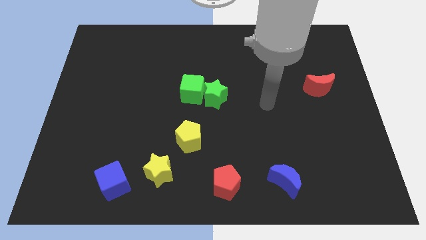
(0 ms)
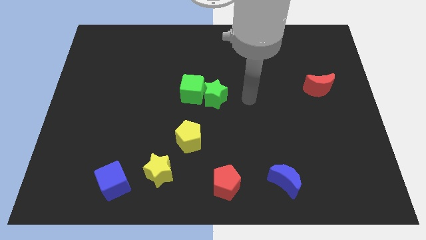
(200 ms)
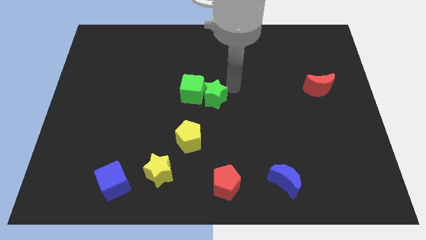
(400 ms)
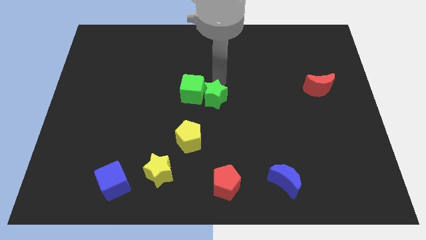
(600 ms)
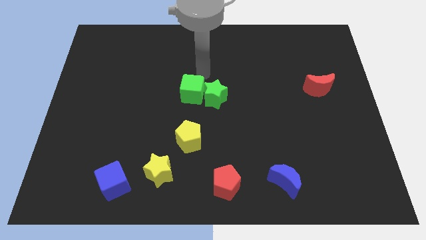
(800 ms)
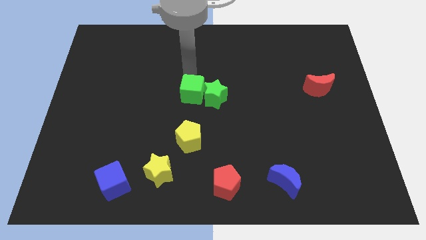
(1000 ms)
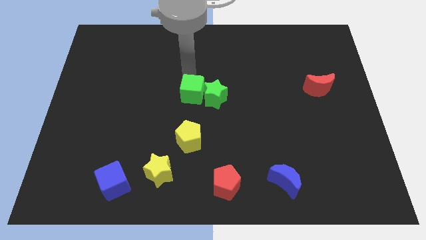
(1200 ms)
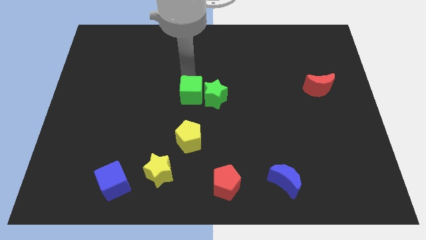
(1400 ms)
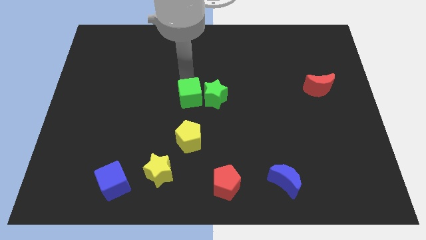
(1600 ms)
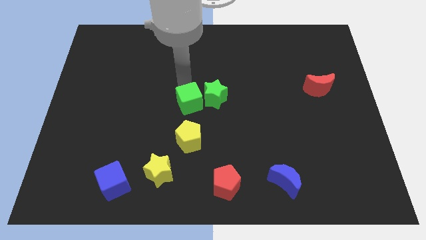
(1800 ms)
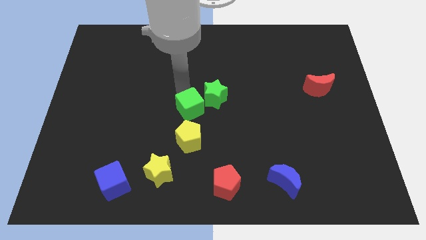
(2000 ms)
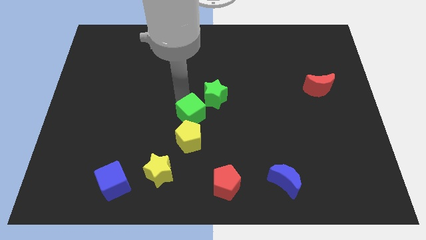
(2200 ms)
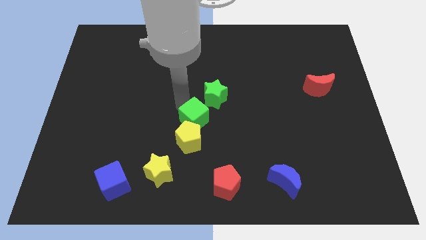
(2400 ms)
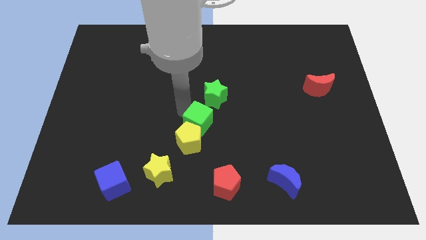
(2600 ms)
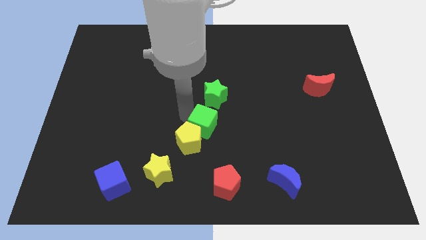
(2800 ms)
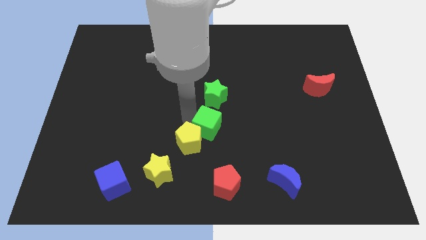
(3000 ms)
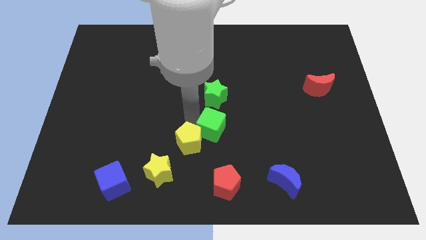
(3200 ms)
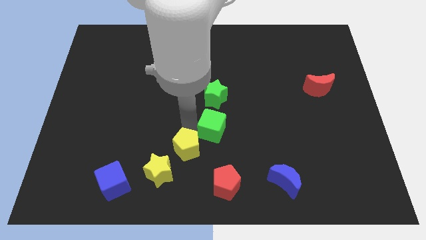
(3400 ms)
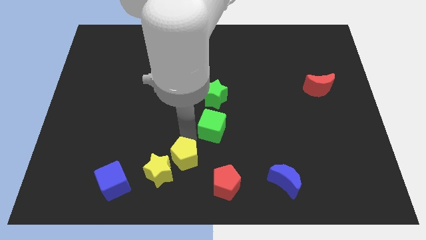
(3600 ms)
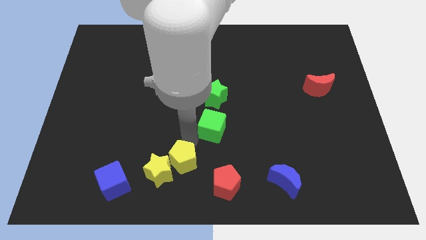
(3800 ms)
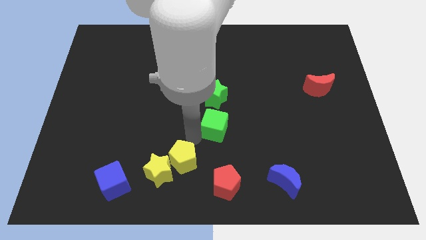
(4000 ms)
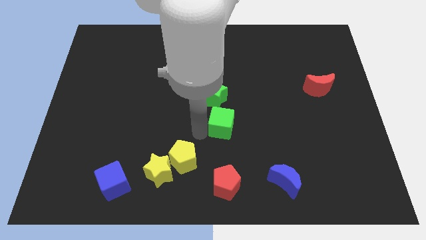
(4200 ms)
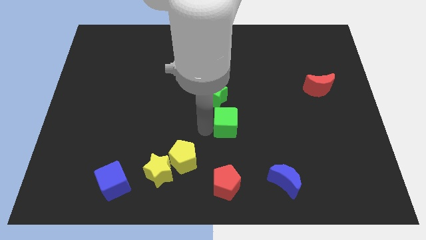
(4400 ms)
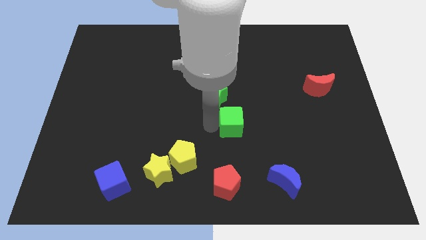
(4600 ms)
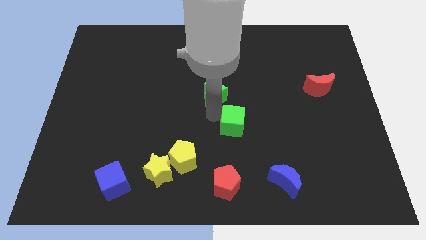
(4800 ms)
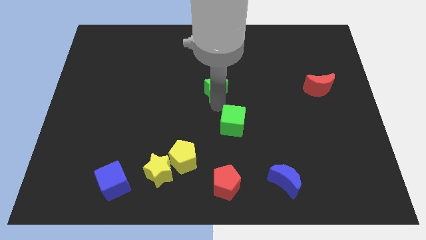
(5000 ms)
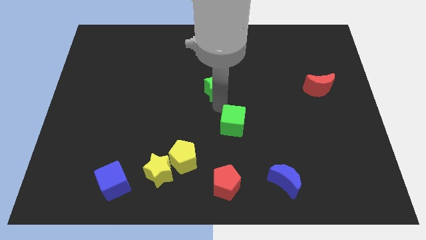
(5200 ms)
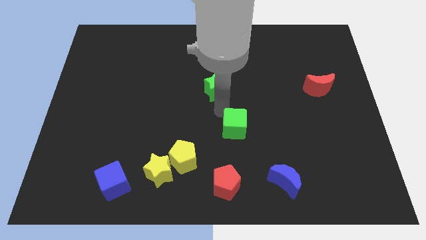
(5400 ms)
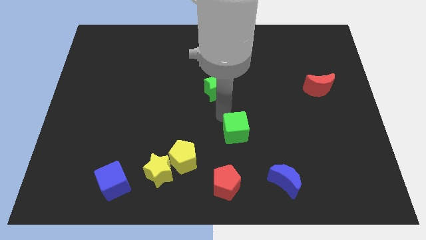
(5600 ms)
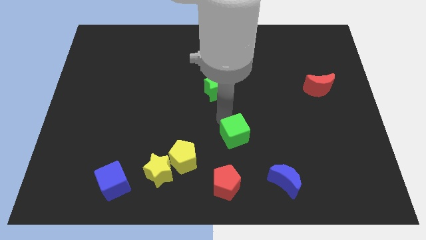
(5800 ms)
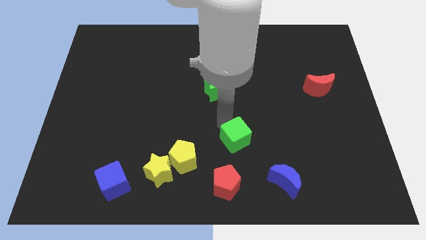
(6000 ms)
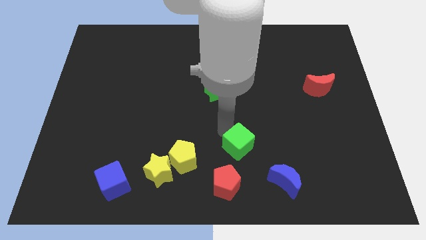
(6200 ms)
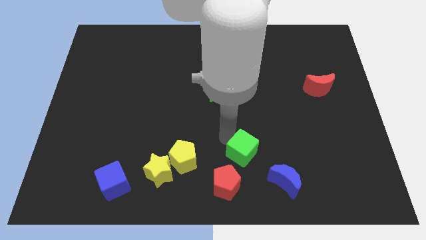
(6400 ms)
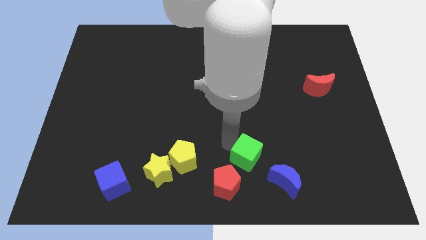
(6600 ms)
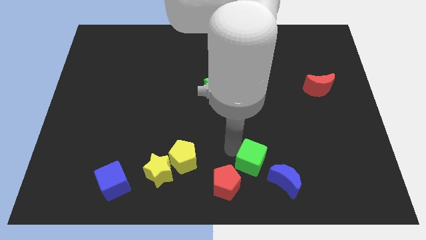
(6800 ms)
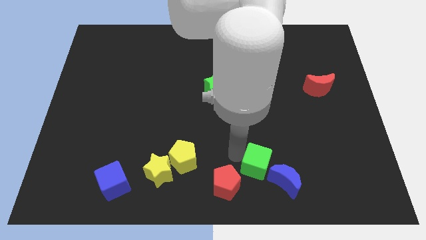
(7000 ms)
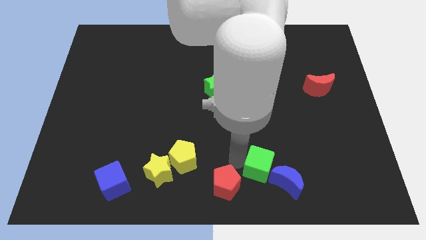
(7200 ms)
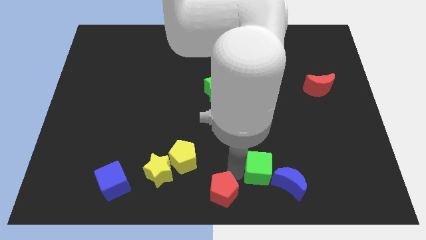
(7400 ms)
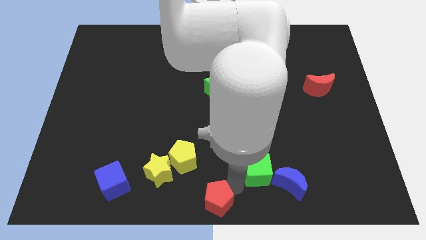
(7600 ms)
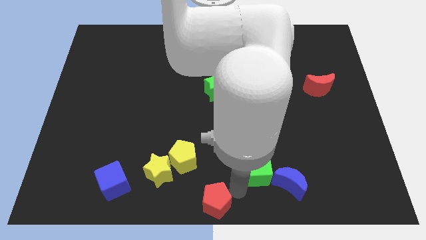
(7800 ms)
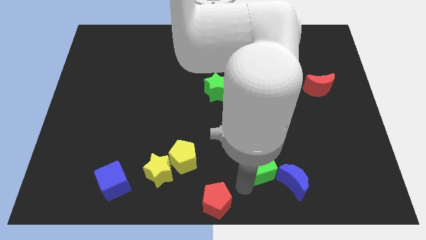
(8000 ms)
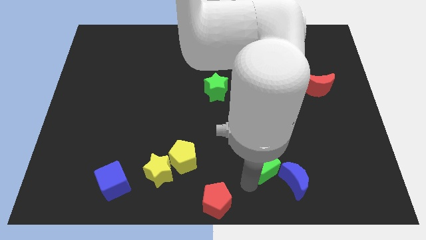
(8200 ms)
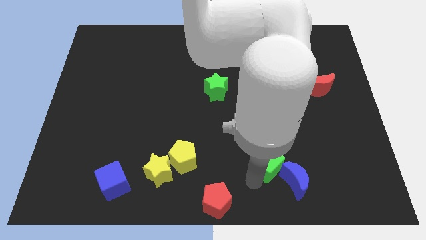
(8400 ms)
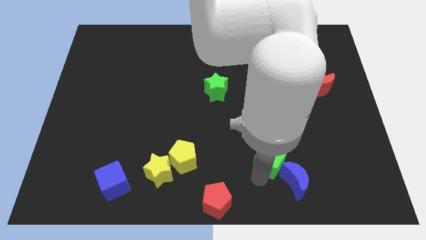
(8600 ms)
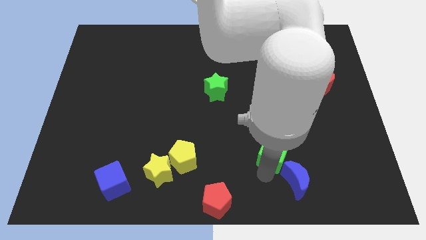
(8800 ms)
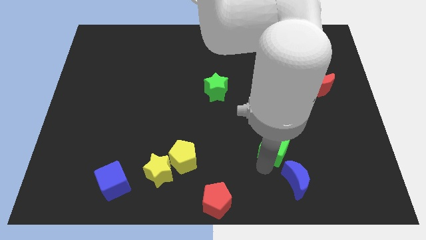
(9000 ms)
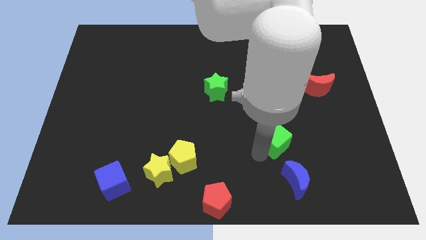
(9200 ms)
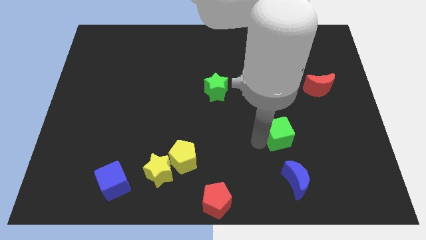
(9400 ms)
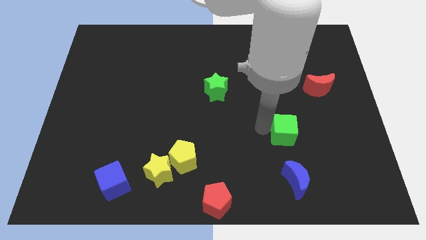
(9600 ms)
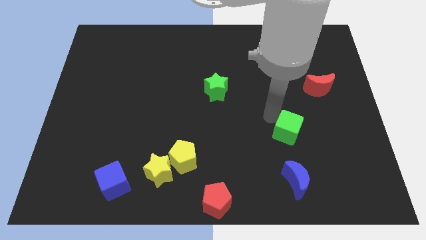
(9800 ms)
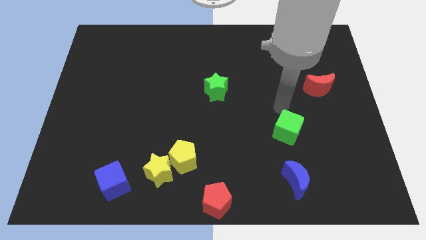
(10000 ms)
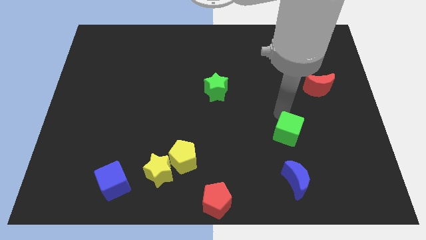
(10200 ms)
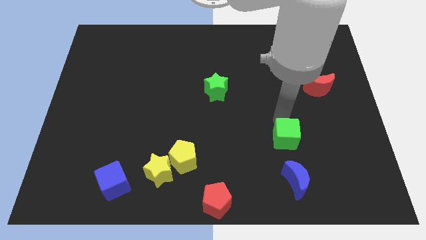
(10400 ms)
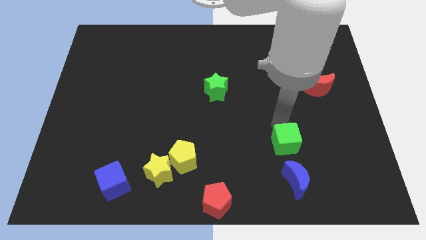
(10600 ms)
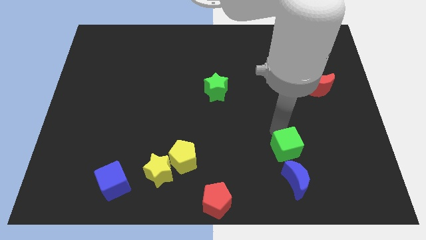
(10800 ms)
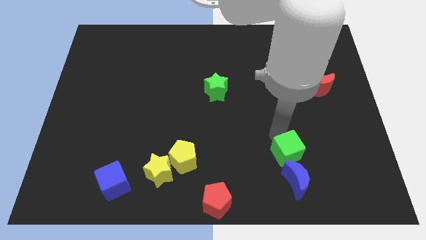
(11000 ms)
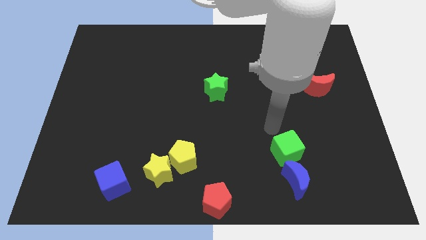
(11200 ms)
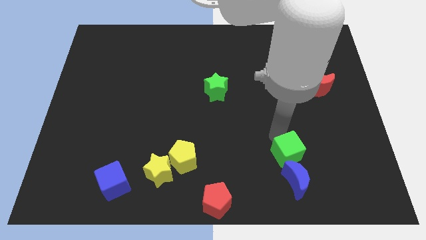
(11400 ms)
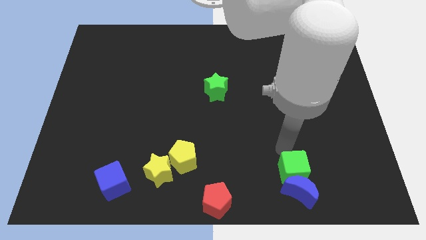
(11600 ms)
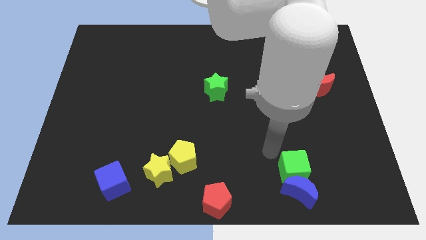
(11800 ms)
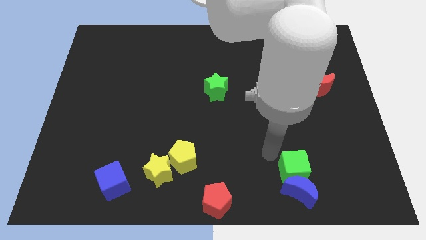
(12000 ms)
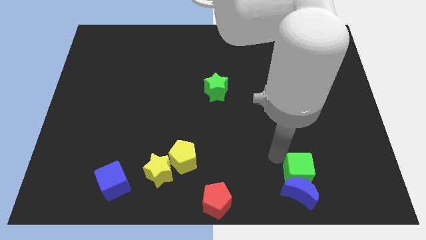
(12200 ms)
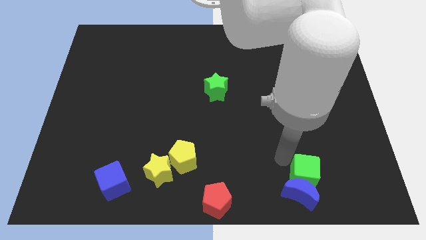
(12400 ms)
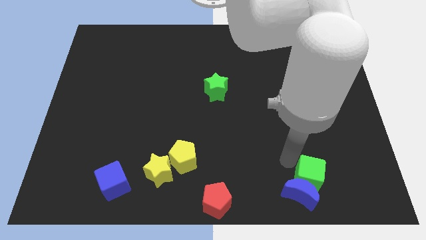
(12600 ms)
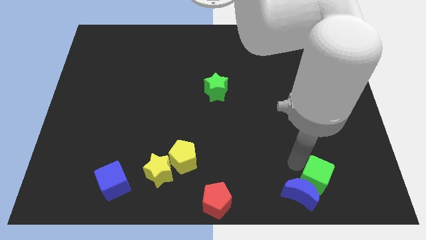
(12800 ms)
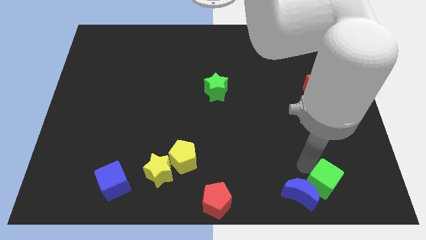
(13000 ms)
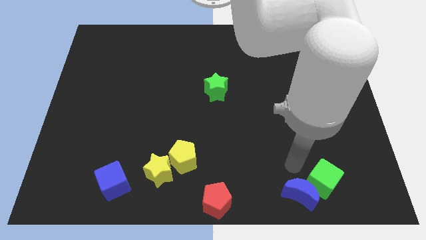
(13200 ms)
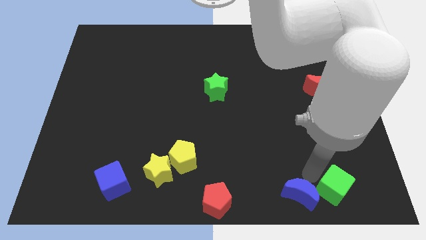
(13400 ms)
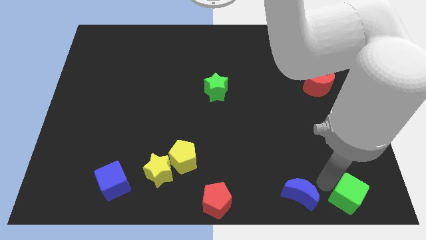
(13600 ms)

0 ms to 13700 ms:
move the green cube to the bottom right

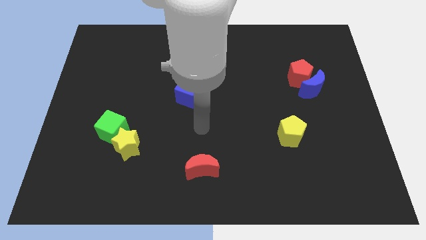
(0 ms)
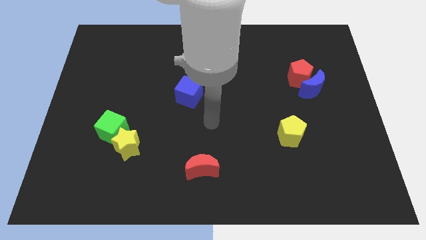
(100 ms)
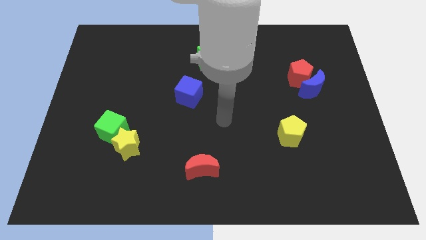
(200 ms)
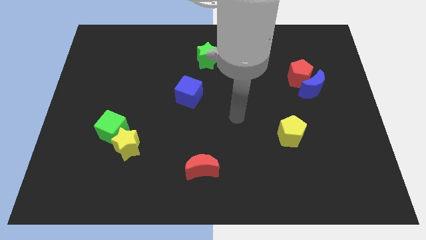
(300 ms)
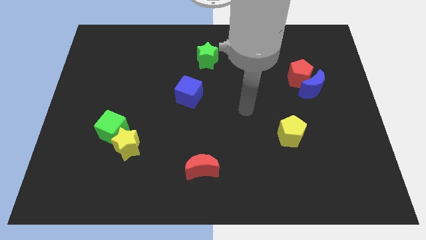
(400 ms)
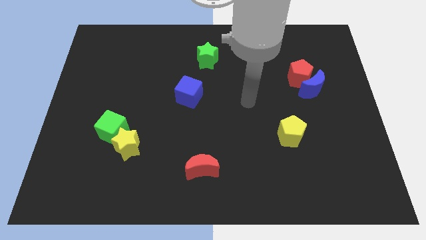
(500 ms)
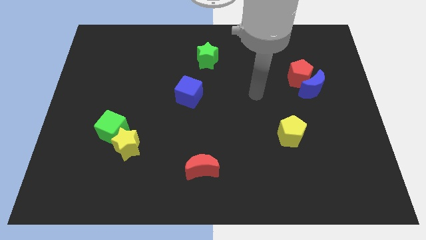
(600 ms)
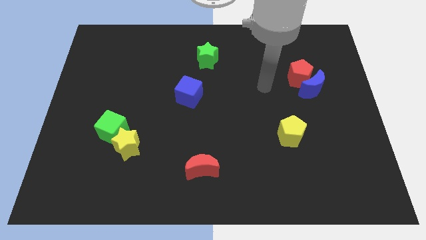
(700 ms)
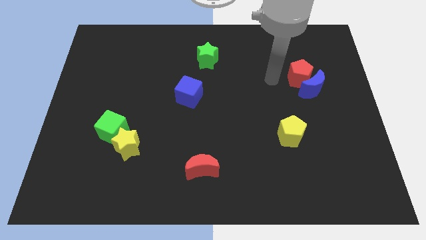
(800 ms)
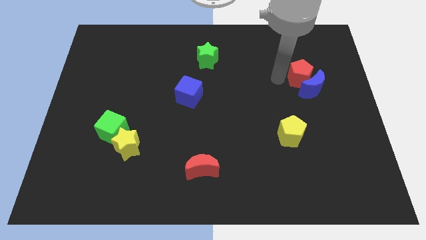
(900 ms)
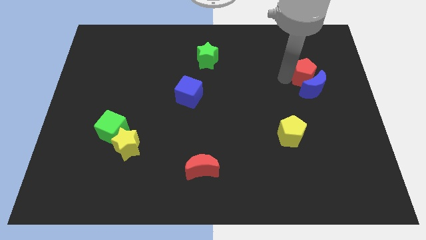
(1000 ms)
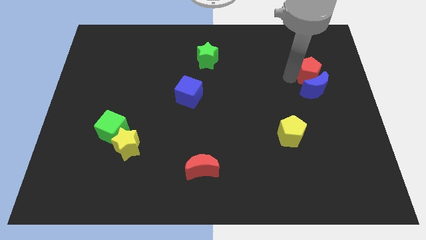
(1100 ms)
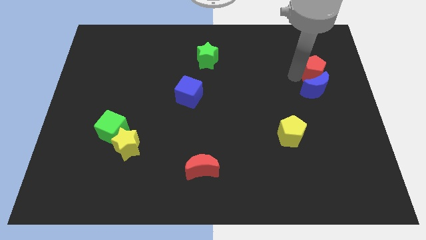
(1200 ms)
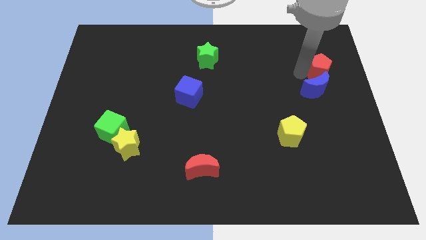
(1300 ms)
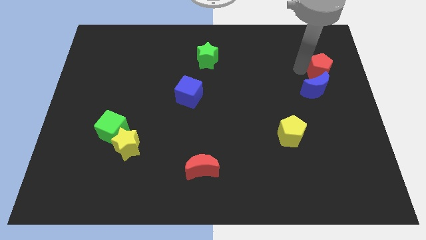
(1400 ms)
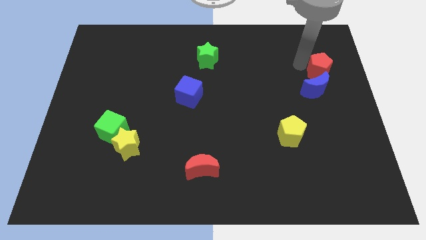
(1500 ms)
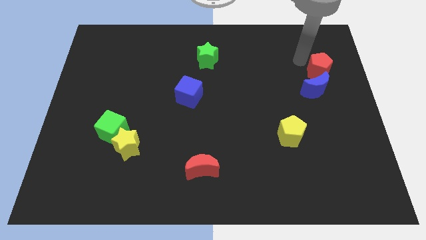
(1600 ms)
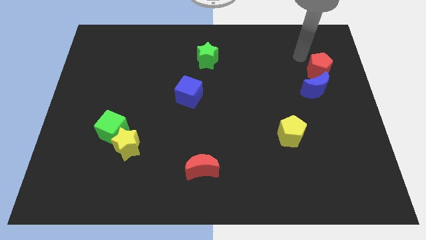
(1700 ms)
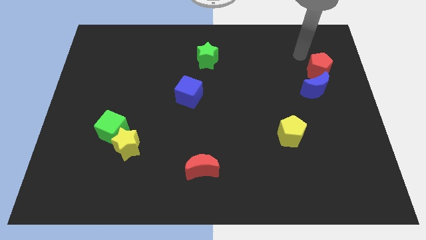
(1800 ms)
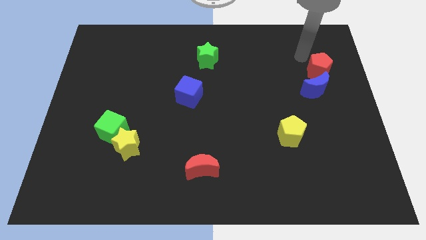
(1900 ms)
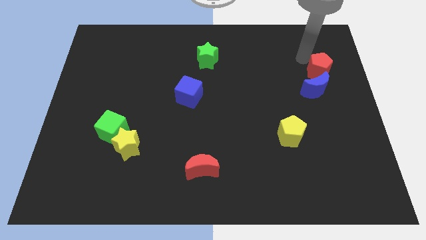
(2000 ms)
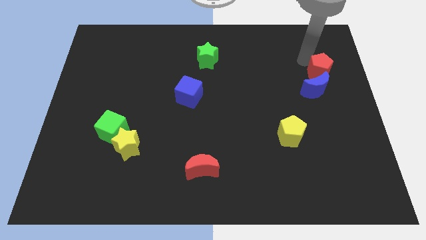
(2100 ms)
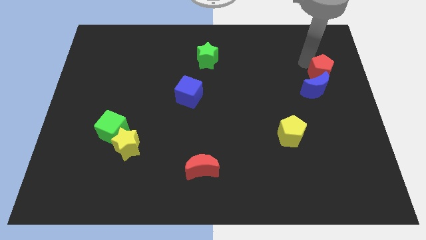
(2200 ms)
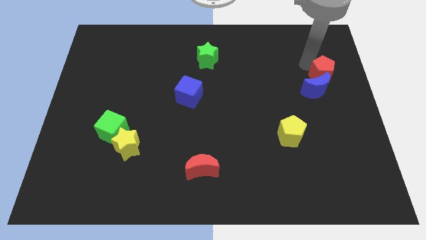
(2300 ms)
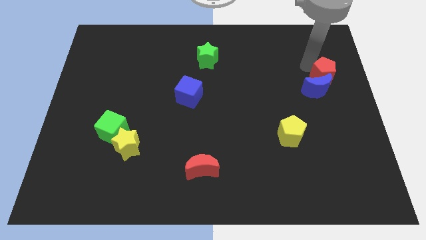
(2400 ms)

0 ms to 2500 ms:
push the red pentagon to the right side
